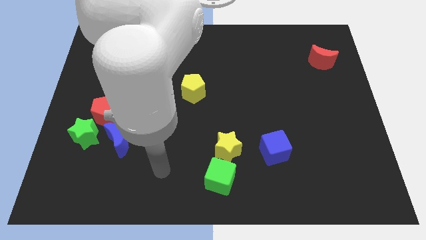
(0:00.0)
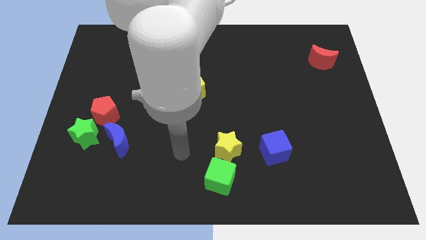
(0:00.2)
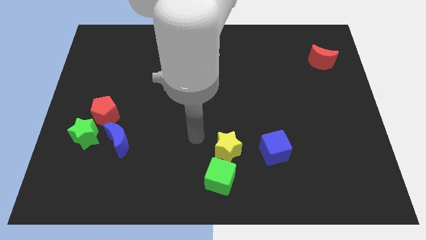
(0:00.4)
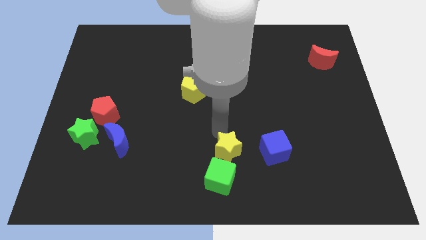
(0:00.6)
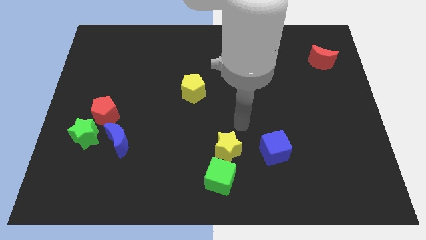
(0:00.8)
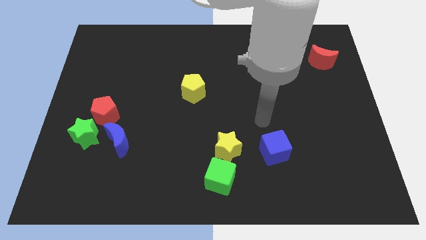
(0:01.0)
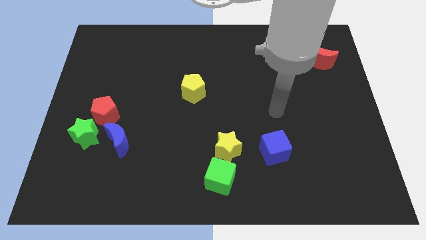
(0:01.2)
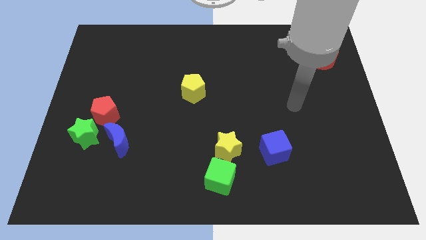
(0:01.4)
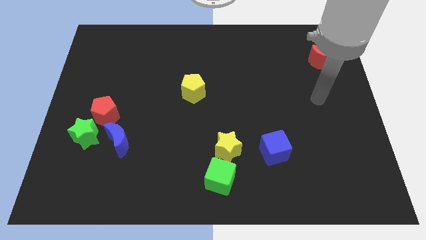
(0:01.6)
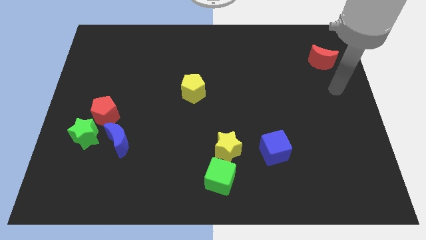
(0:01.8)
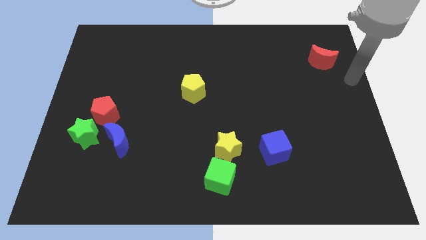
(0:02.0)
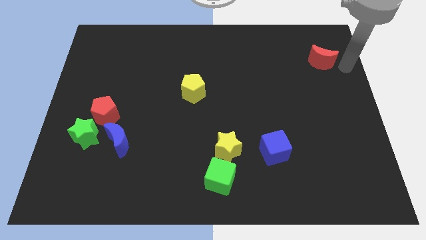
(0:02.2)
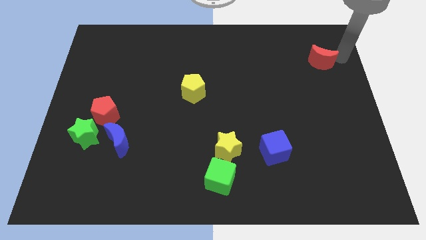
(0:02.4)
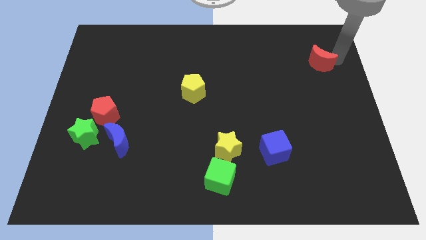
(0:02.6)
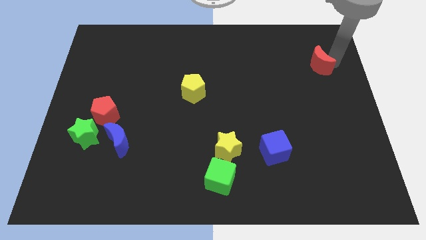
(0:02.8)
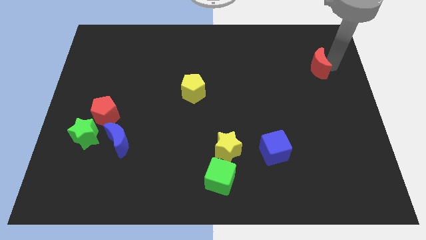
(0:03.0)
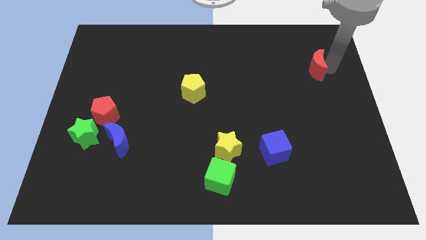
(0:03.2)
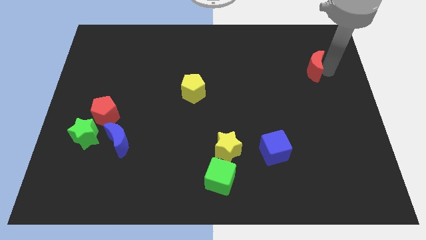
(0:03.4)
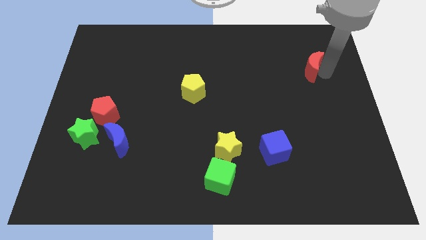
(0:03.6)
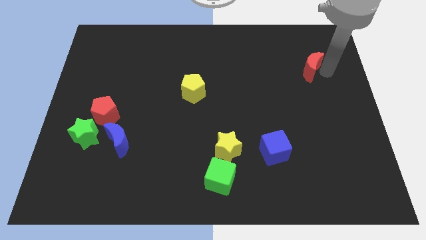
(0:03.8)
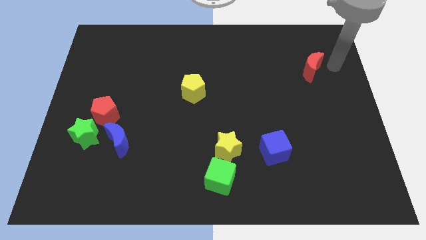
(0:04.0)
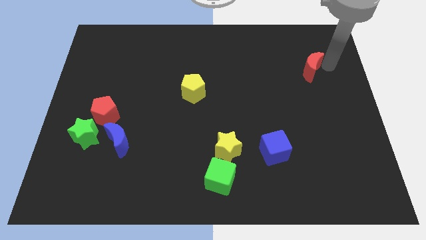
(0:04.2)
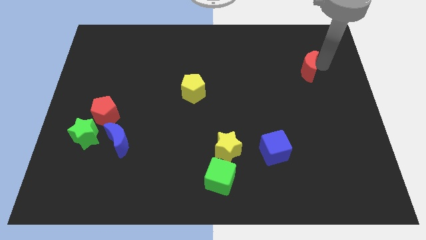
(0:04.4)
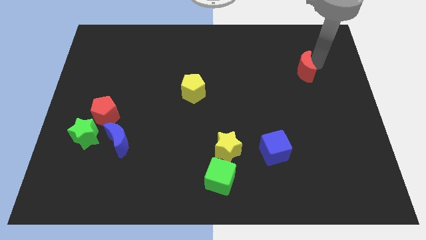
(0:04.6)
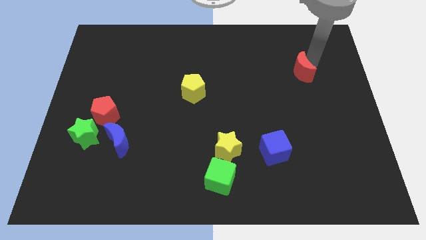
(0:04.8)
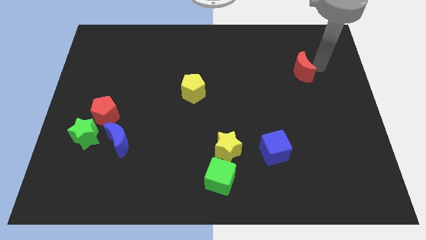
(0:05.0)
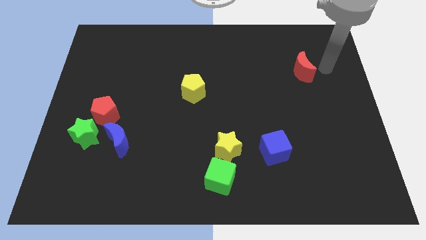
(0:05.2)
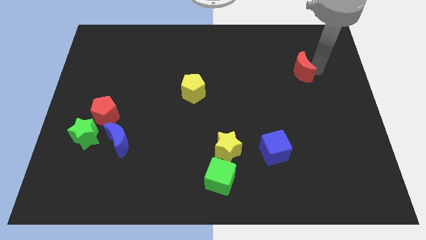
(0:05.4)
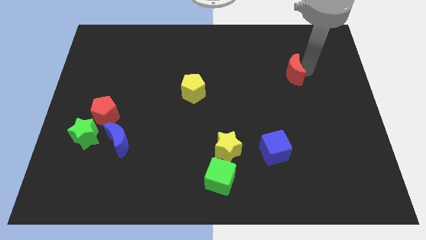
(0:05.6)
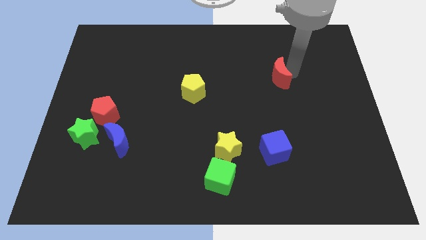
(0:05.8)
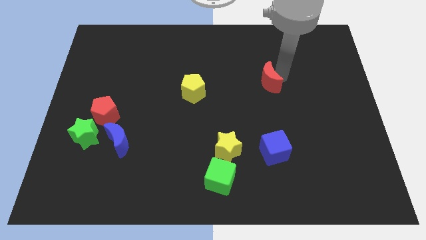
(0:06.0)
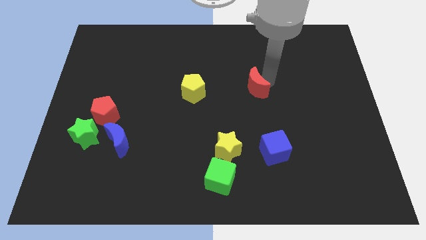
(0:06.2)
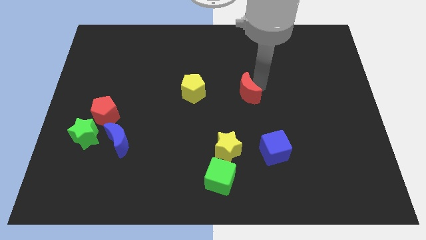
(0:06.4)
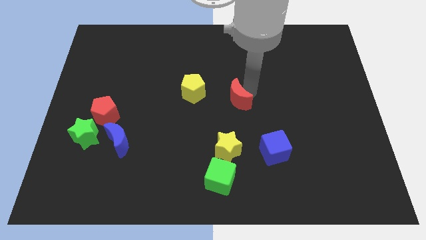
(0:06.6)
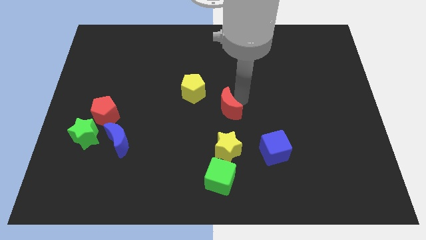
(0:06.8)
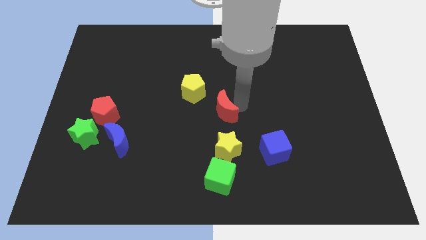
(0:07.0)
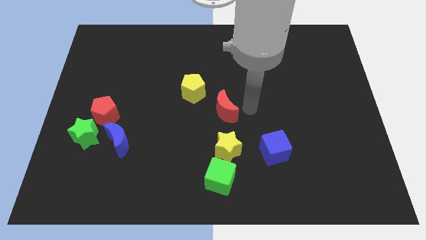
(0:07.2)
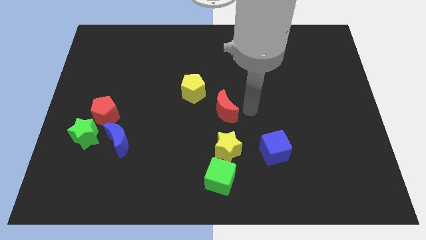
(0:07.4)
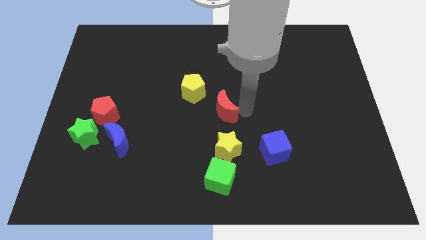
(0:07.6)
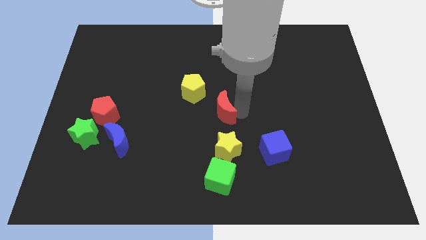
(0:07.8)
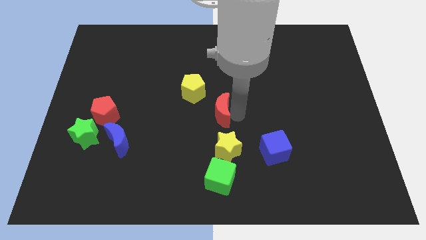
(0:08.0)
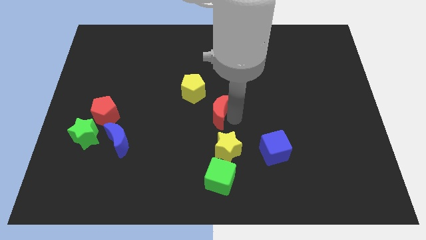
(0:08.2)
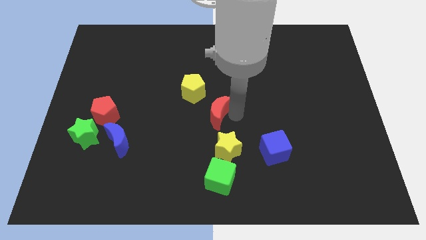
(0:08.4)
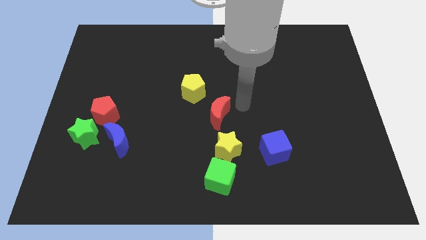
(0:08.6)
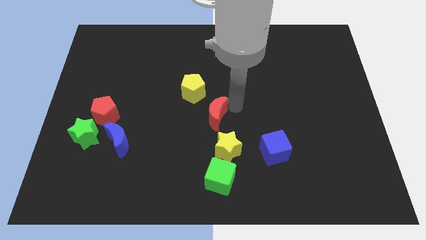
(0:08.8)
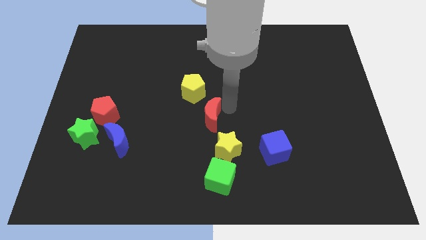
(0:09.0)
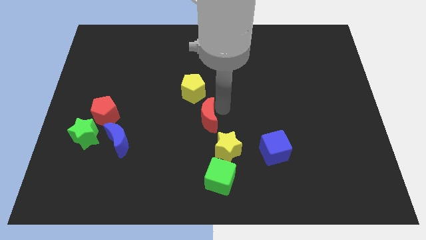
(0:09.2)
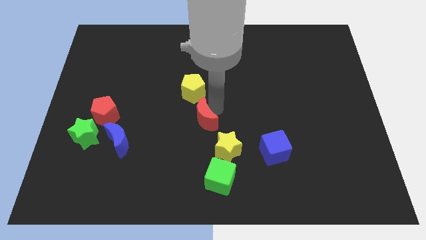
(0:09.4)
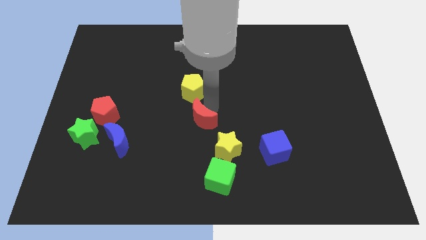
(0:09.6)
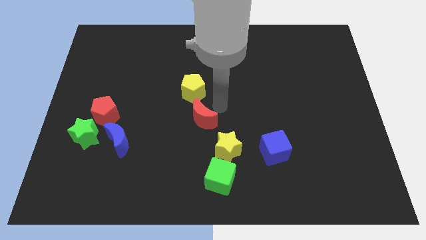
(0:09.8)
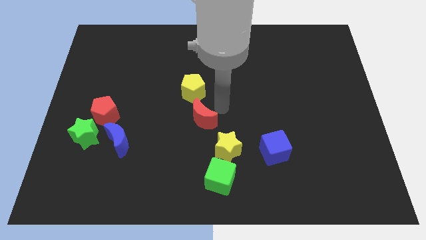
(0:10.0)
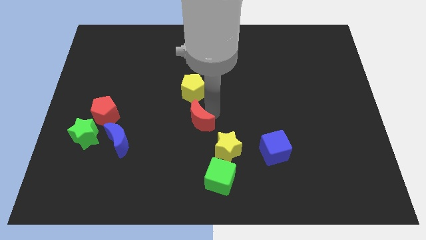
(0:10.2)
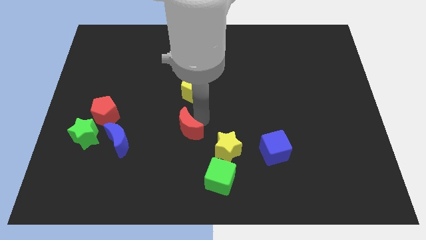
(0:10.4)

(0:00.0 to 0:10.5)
move the red moon right of the blue moon

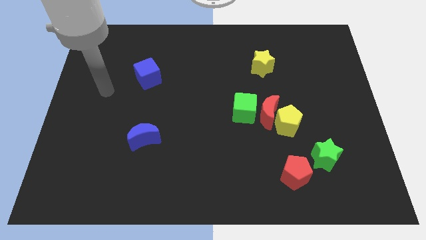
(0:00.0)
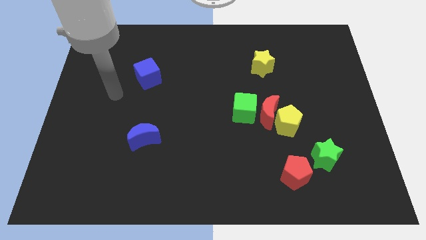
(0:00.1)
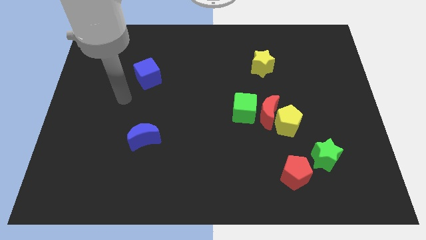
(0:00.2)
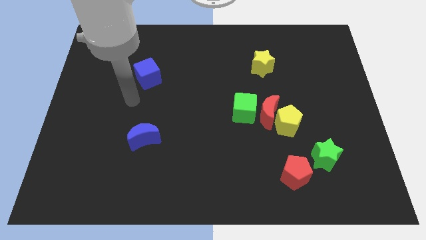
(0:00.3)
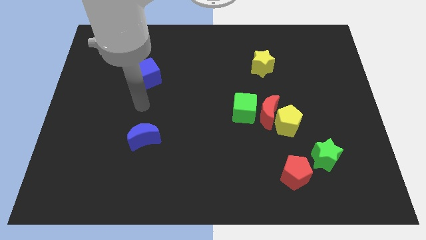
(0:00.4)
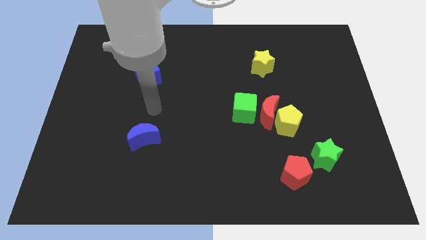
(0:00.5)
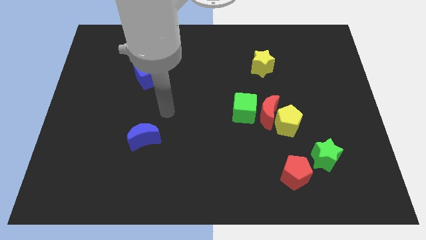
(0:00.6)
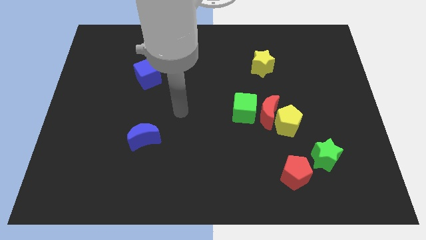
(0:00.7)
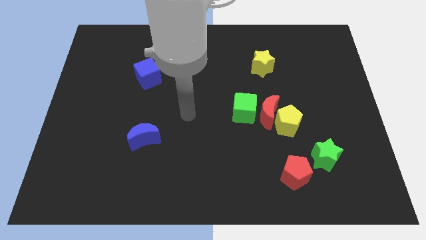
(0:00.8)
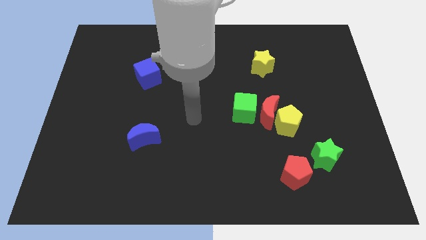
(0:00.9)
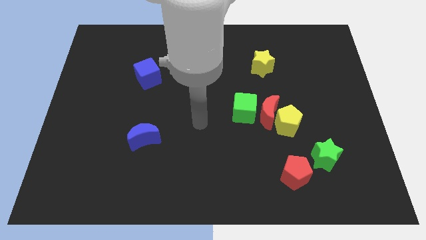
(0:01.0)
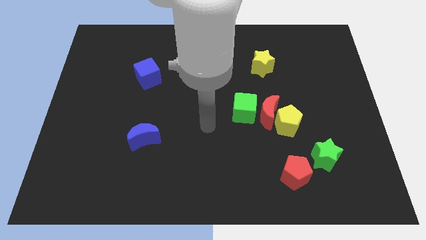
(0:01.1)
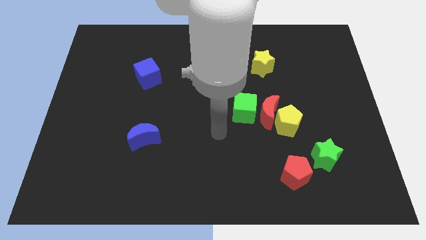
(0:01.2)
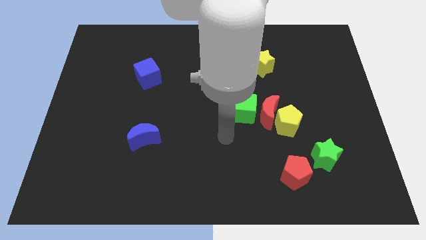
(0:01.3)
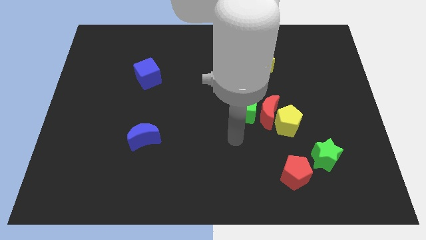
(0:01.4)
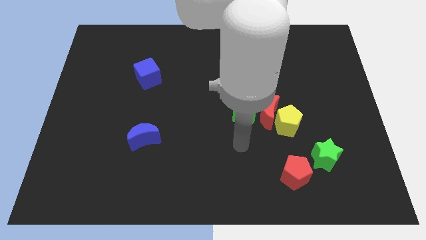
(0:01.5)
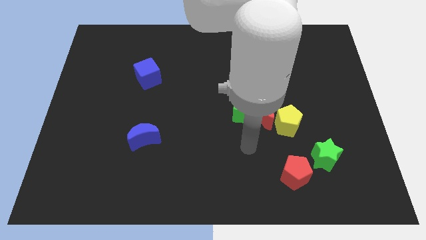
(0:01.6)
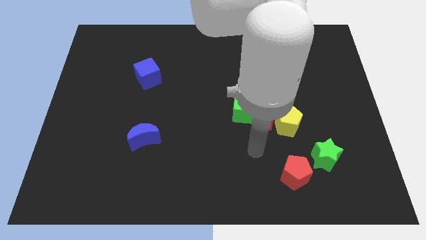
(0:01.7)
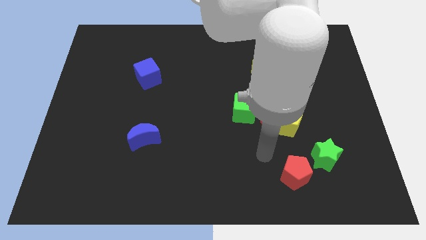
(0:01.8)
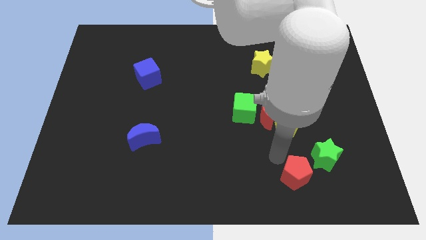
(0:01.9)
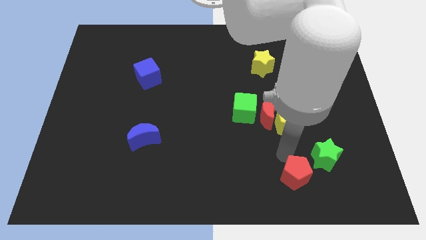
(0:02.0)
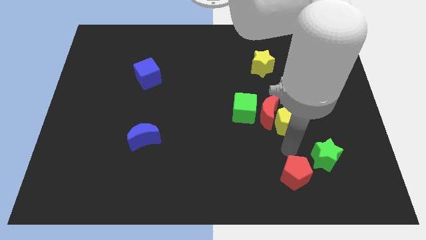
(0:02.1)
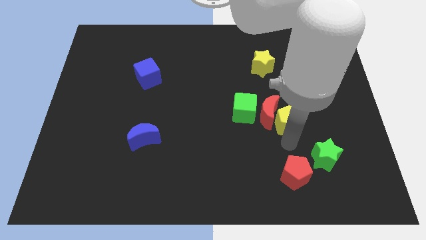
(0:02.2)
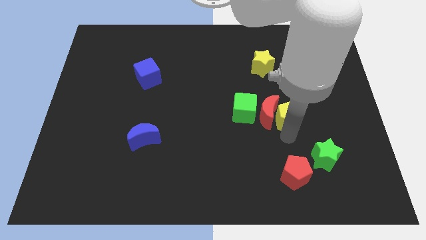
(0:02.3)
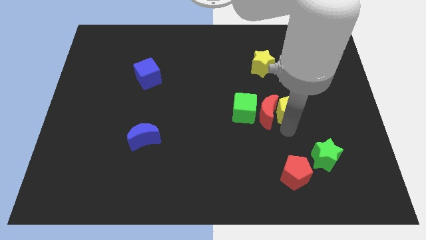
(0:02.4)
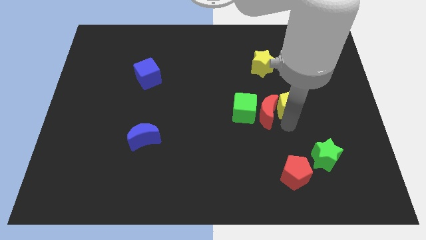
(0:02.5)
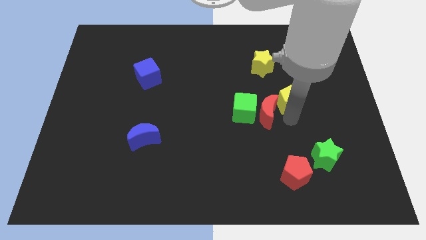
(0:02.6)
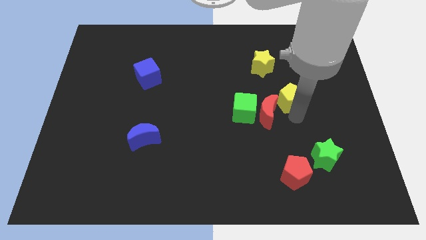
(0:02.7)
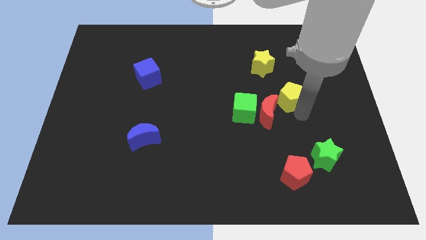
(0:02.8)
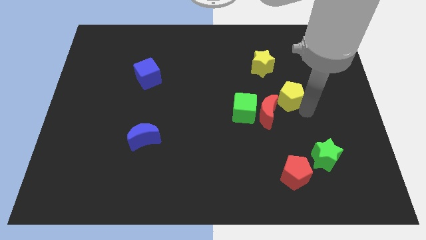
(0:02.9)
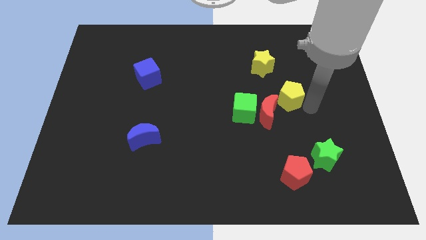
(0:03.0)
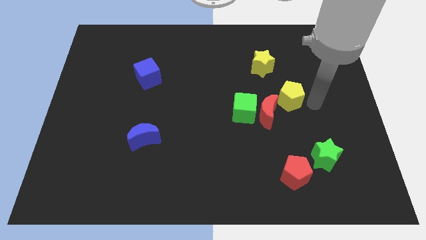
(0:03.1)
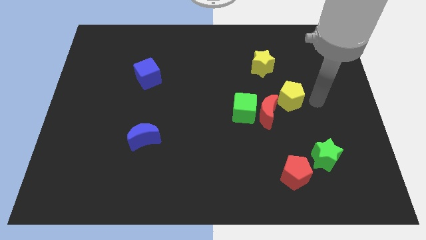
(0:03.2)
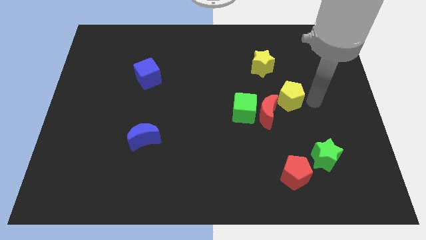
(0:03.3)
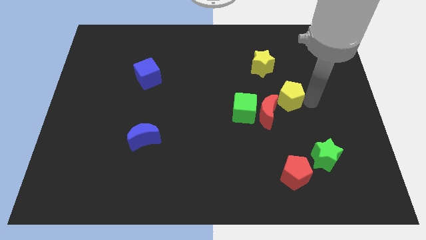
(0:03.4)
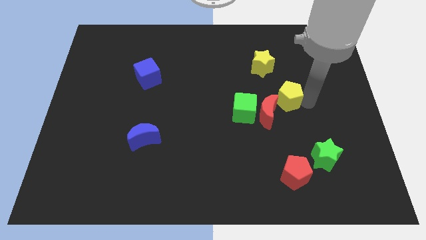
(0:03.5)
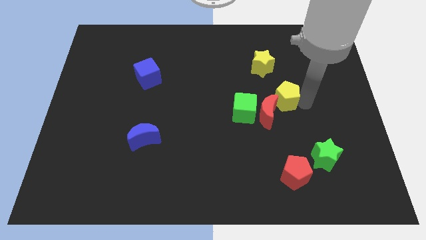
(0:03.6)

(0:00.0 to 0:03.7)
put the yellow pentagon below the yellow star
